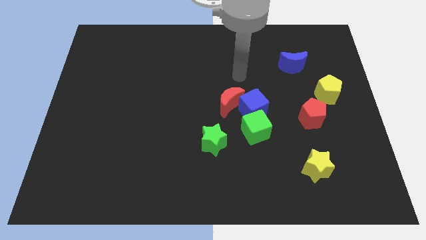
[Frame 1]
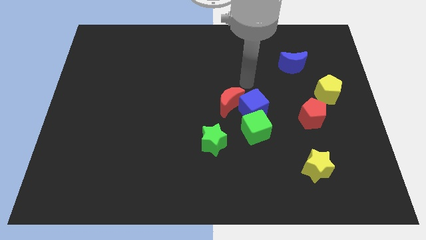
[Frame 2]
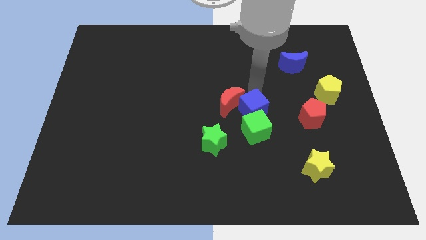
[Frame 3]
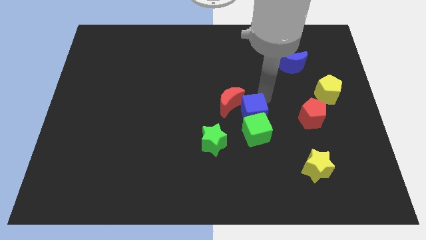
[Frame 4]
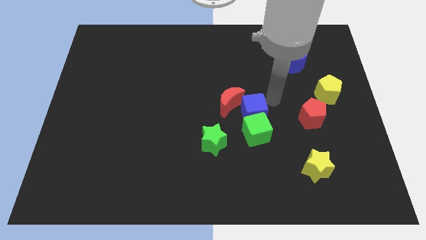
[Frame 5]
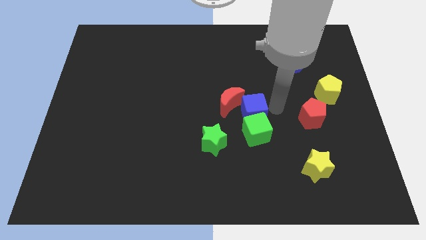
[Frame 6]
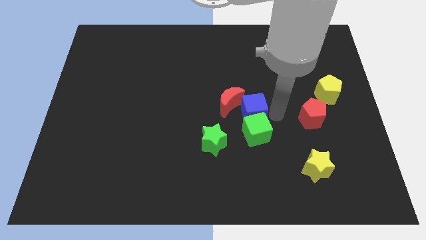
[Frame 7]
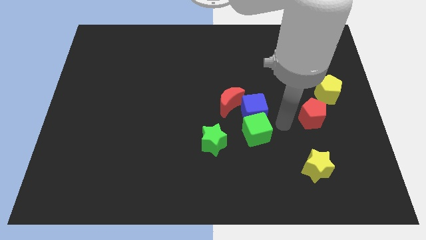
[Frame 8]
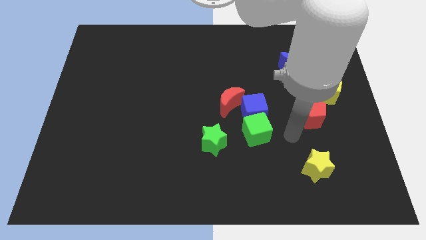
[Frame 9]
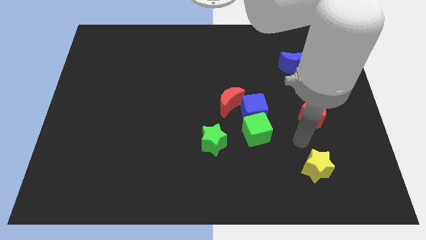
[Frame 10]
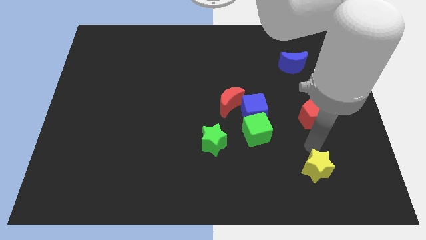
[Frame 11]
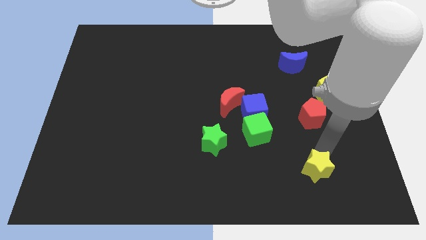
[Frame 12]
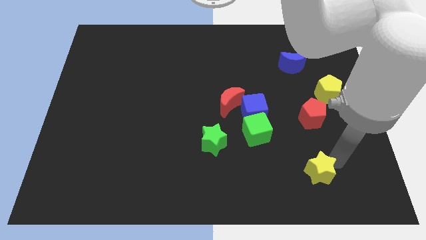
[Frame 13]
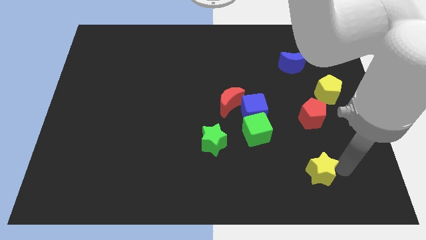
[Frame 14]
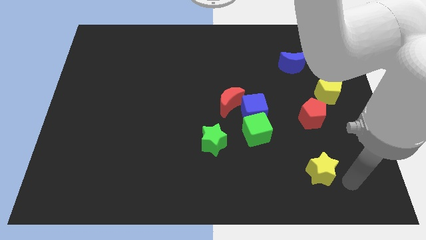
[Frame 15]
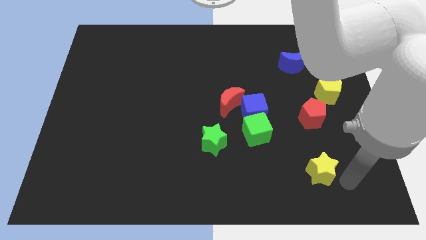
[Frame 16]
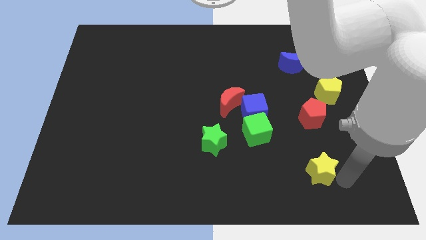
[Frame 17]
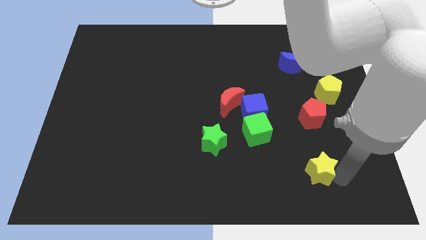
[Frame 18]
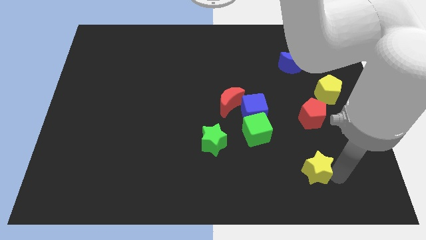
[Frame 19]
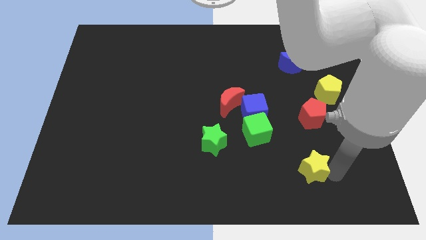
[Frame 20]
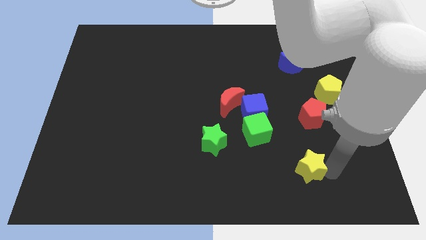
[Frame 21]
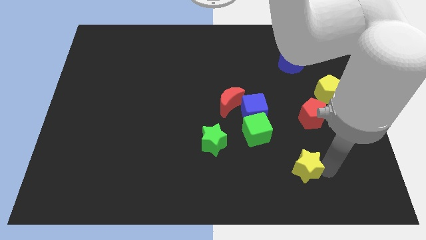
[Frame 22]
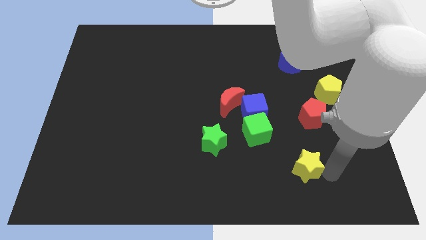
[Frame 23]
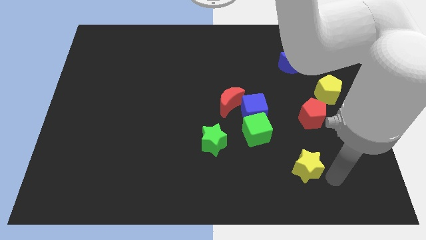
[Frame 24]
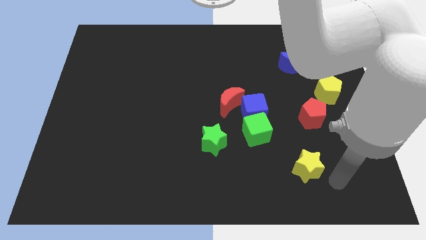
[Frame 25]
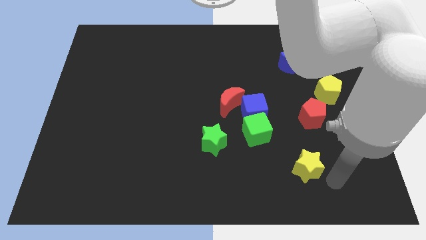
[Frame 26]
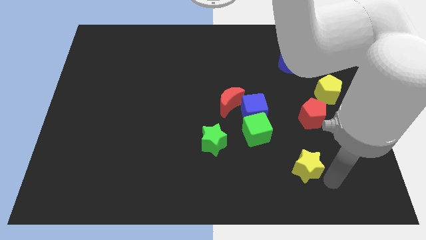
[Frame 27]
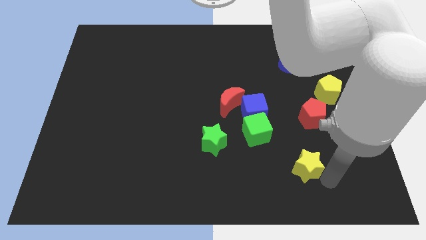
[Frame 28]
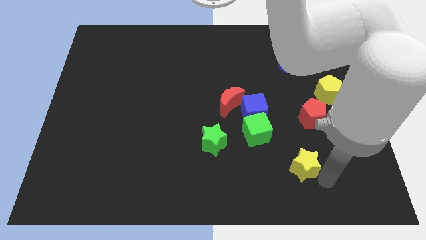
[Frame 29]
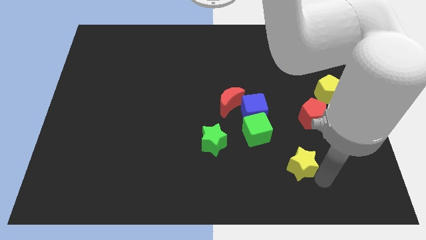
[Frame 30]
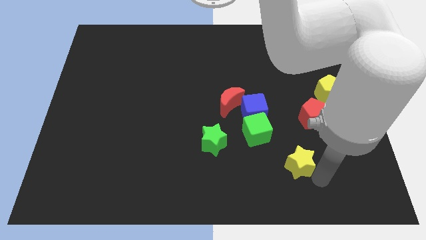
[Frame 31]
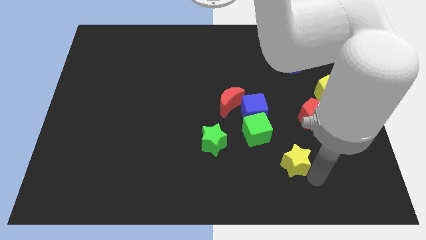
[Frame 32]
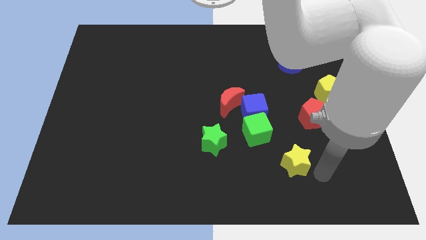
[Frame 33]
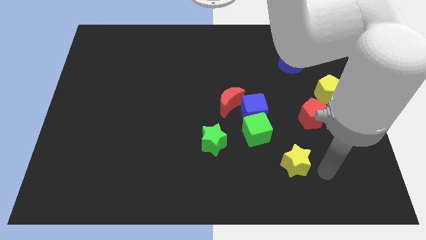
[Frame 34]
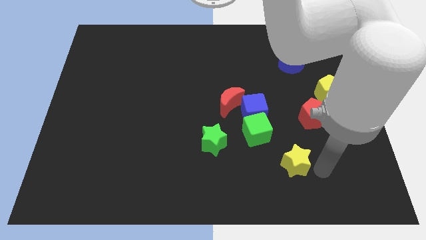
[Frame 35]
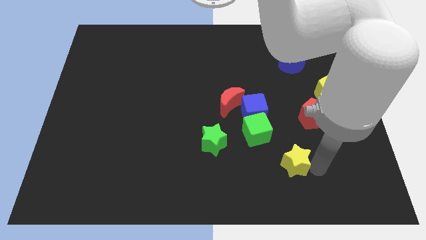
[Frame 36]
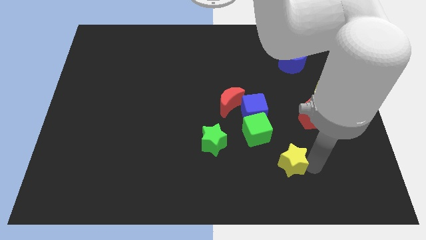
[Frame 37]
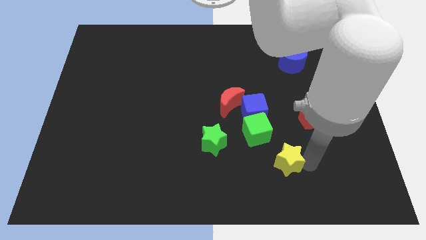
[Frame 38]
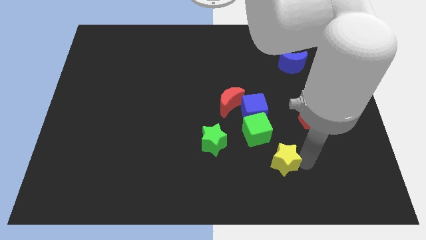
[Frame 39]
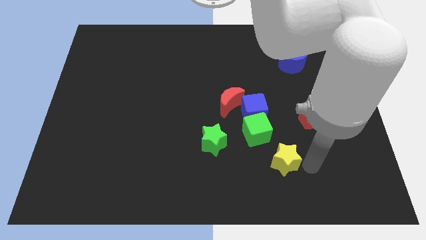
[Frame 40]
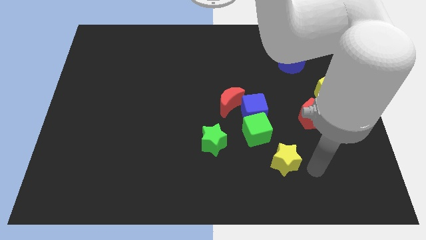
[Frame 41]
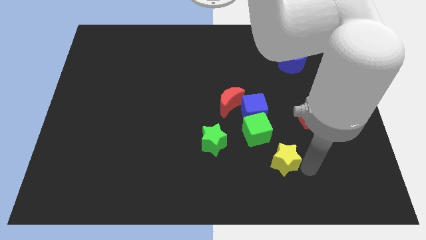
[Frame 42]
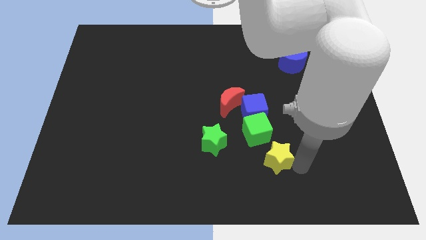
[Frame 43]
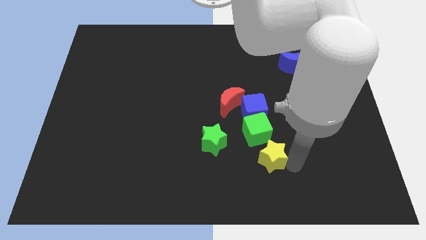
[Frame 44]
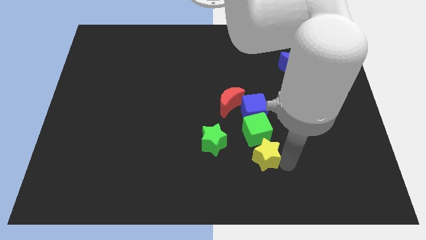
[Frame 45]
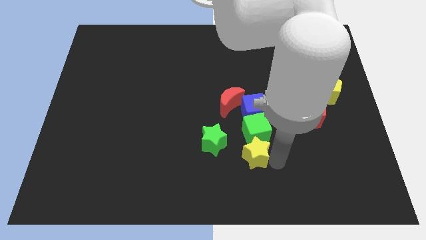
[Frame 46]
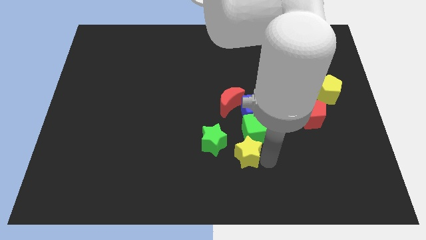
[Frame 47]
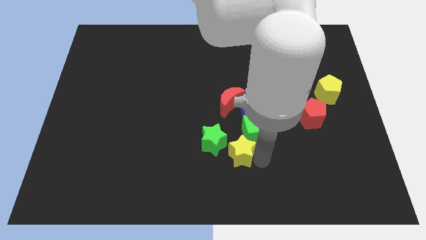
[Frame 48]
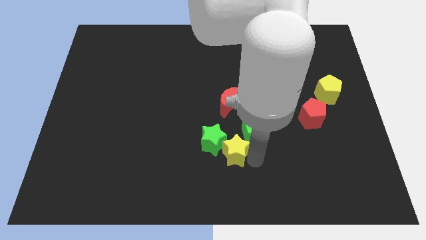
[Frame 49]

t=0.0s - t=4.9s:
push the yellow star close to the green star

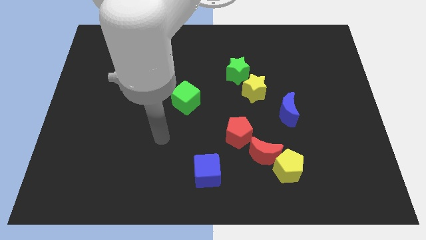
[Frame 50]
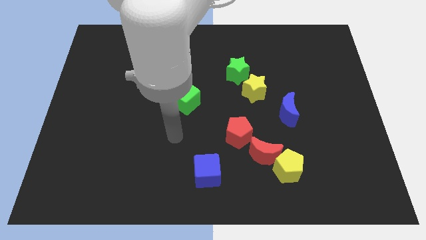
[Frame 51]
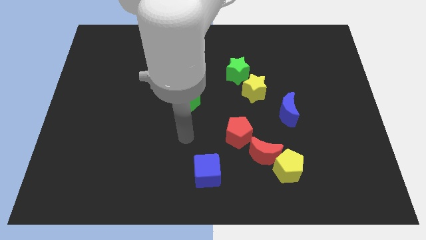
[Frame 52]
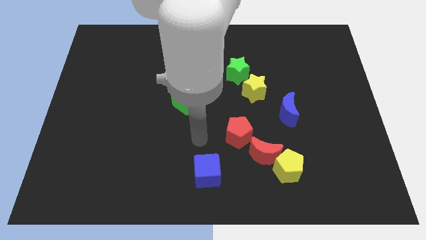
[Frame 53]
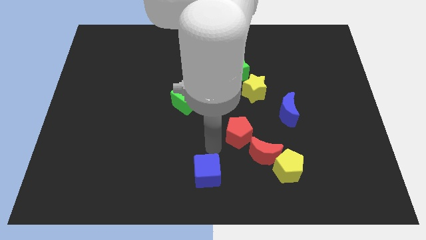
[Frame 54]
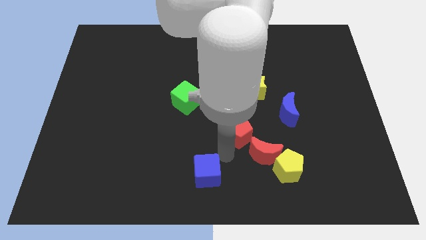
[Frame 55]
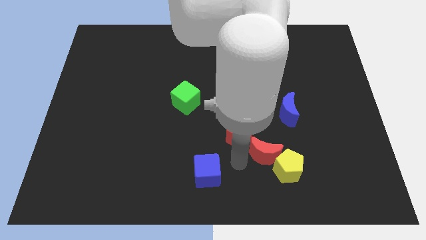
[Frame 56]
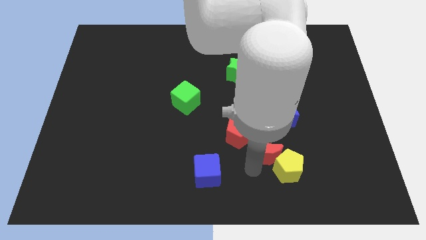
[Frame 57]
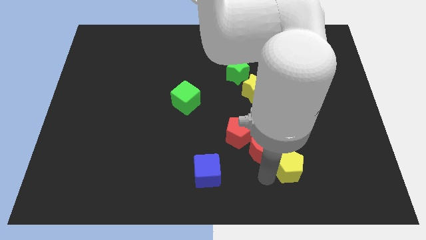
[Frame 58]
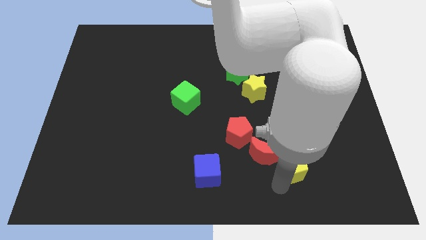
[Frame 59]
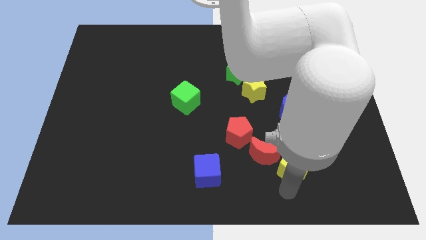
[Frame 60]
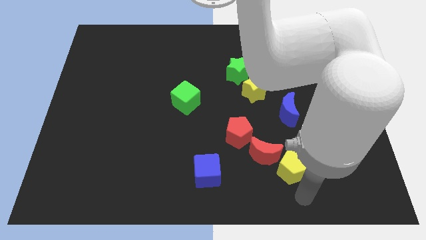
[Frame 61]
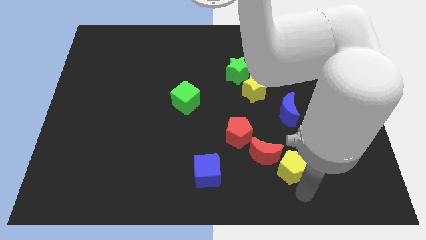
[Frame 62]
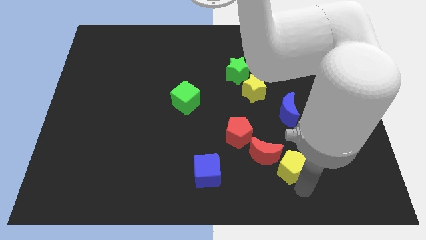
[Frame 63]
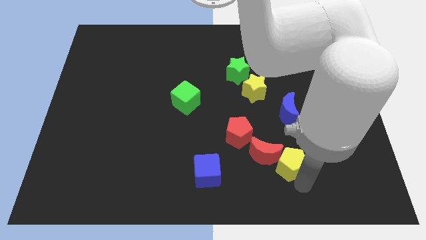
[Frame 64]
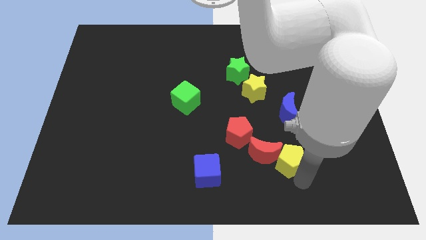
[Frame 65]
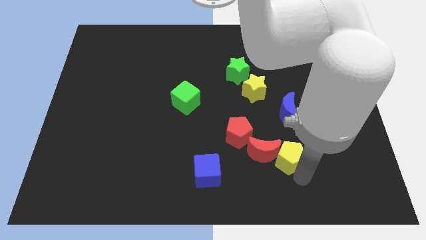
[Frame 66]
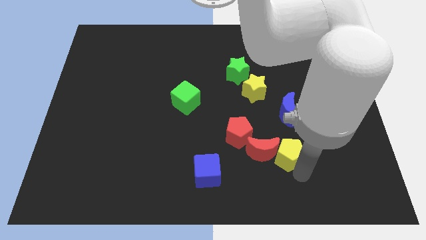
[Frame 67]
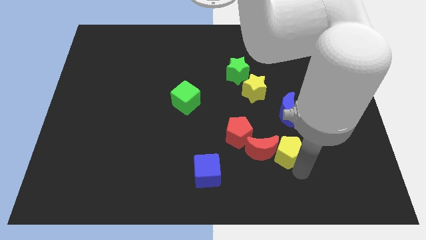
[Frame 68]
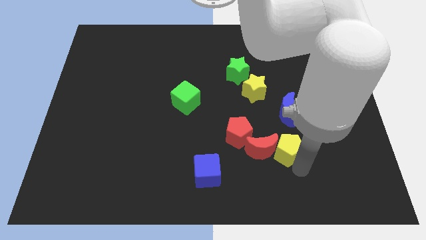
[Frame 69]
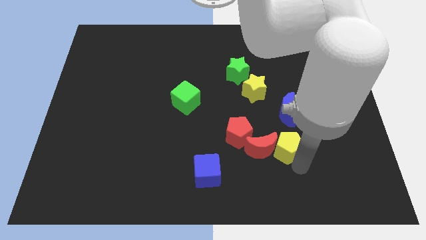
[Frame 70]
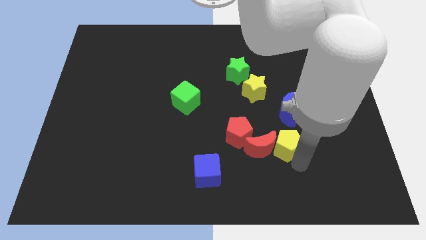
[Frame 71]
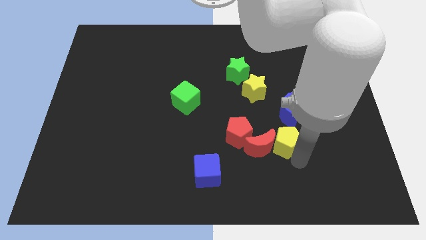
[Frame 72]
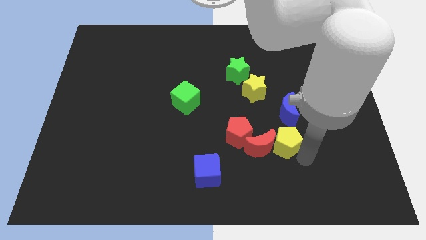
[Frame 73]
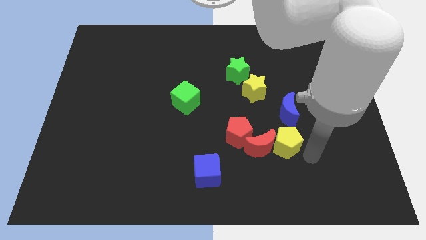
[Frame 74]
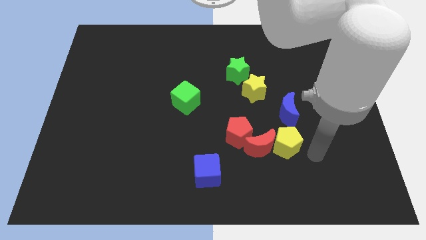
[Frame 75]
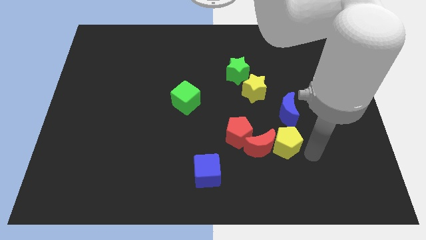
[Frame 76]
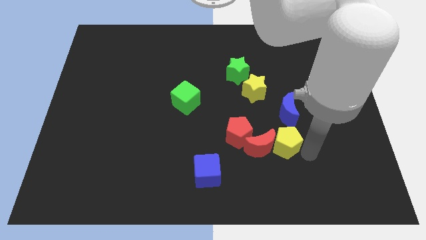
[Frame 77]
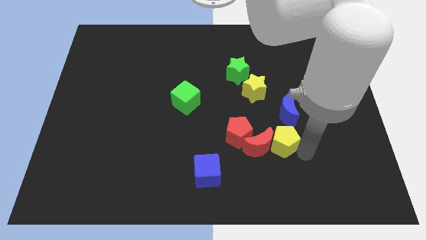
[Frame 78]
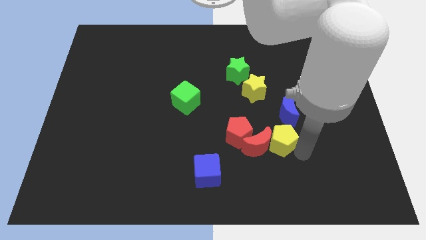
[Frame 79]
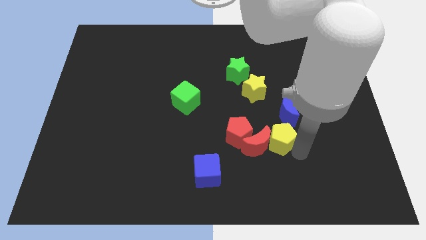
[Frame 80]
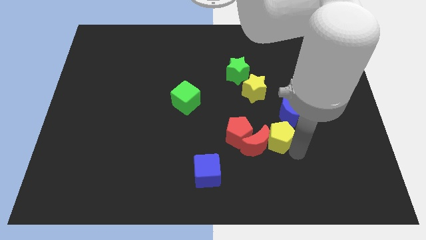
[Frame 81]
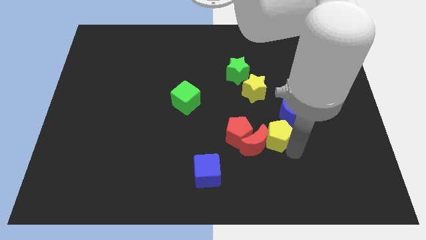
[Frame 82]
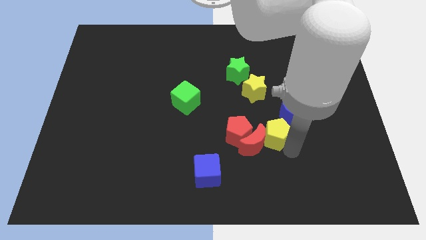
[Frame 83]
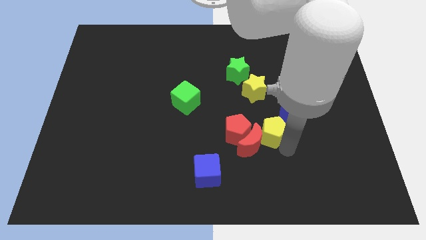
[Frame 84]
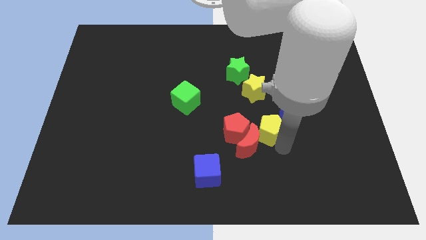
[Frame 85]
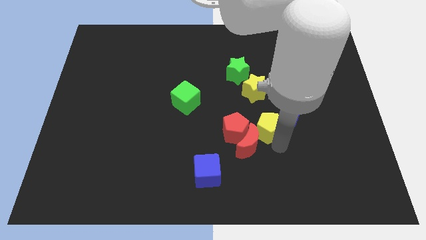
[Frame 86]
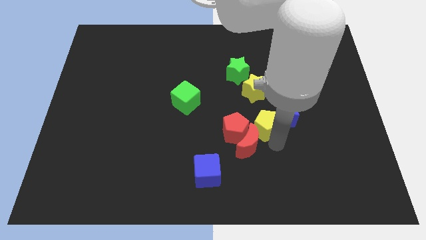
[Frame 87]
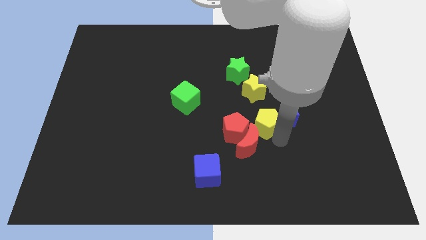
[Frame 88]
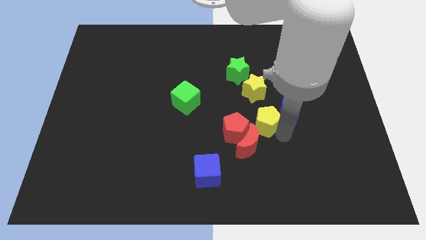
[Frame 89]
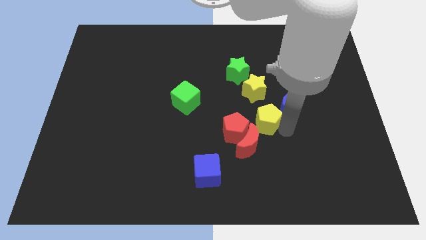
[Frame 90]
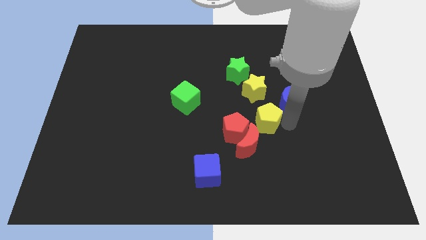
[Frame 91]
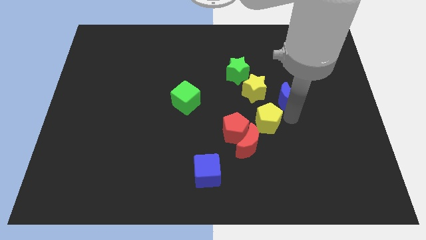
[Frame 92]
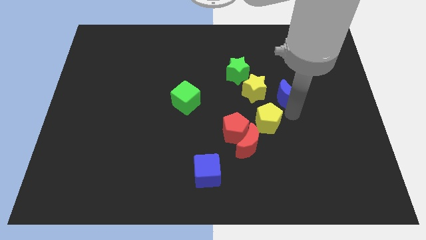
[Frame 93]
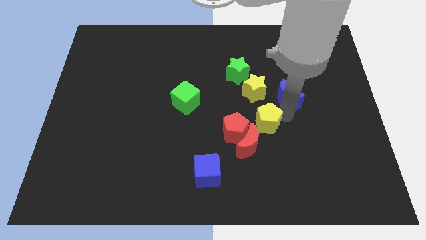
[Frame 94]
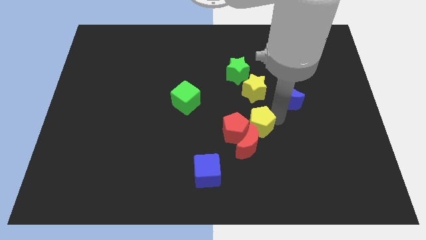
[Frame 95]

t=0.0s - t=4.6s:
put the yellow pentagon towards the red pentagon
